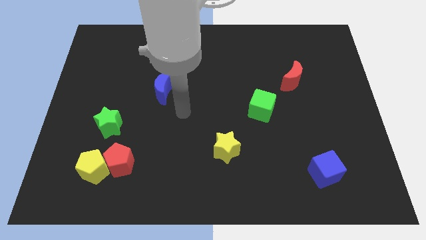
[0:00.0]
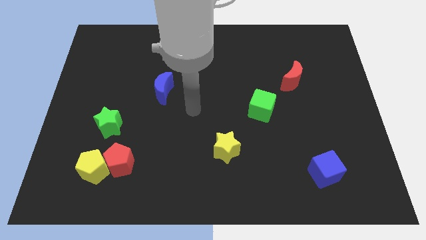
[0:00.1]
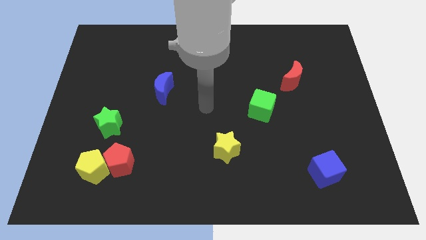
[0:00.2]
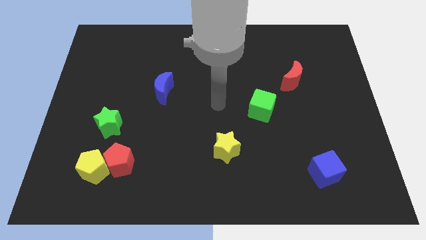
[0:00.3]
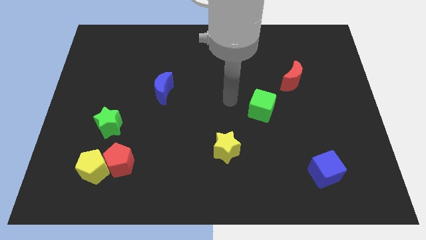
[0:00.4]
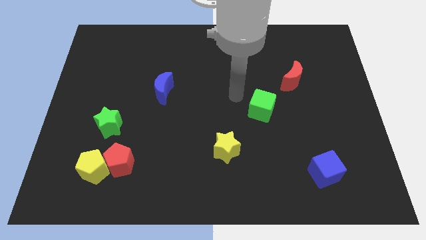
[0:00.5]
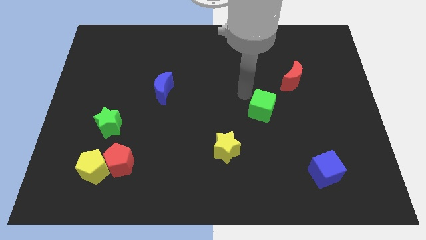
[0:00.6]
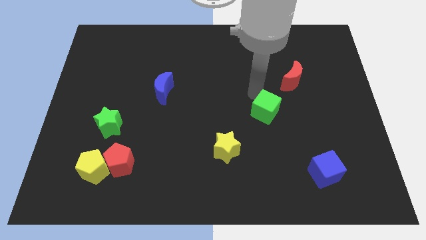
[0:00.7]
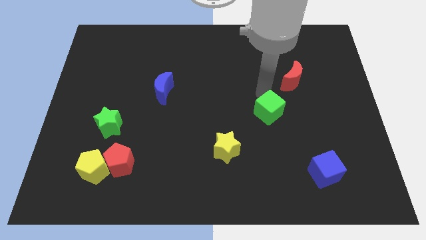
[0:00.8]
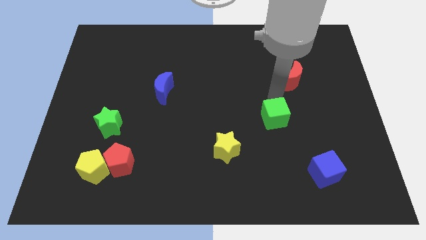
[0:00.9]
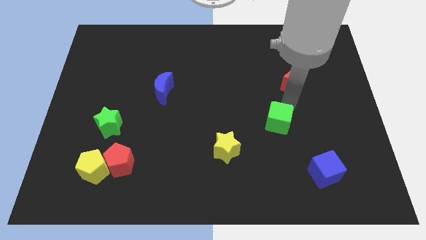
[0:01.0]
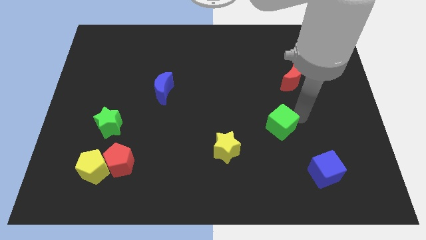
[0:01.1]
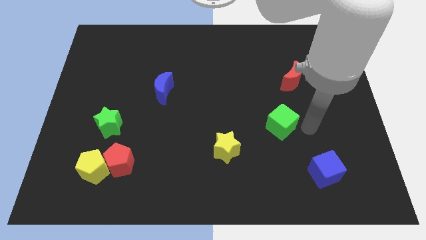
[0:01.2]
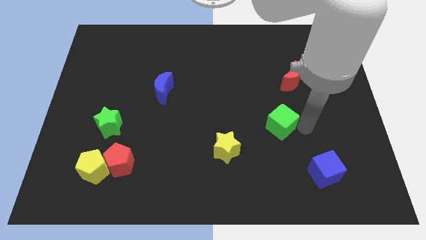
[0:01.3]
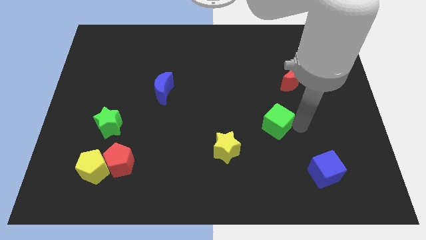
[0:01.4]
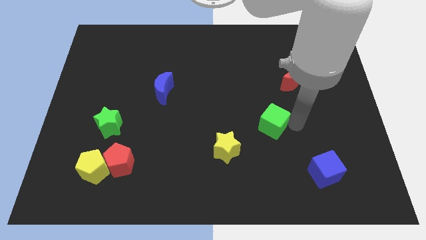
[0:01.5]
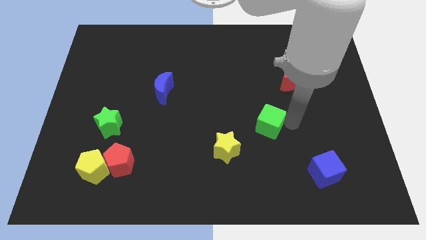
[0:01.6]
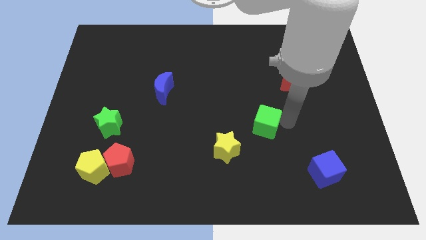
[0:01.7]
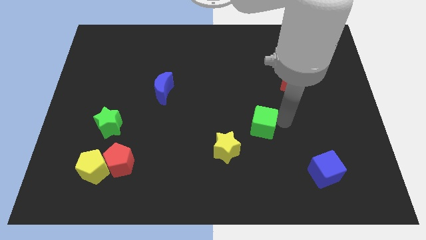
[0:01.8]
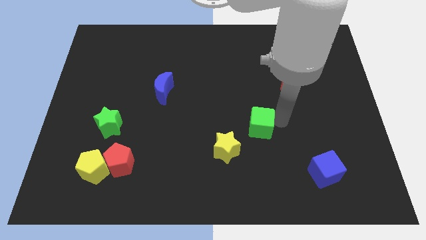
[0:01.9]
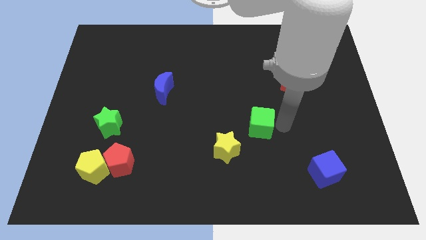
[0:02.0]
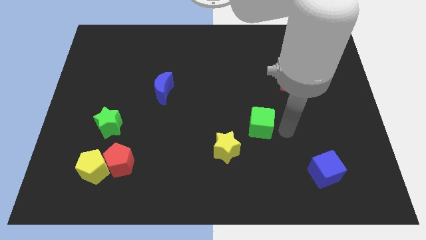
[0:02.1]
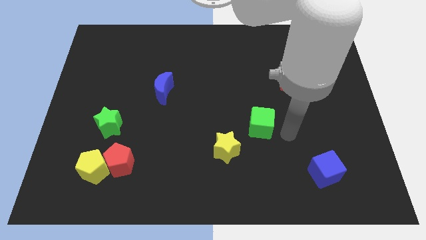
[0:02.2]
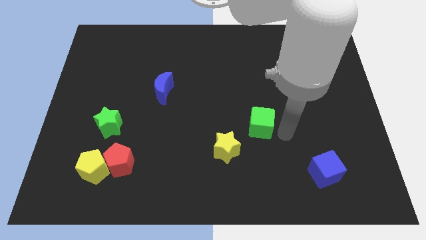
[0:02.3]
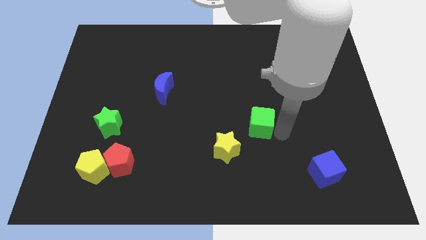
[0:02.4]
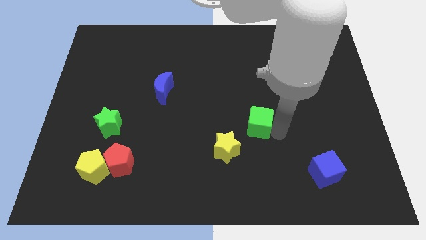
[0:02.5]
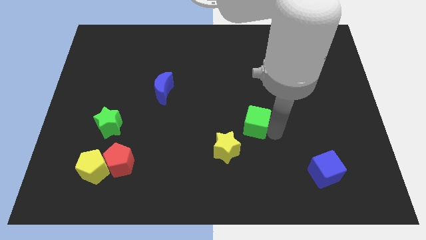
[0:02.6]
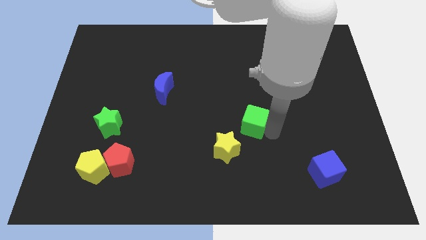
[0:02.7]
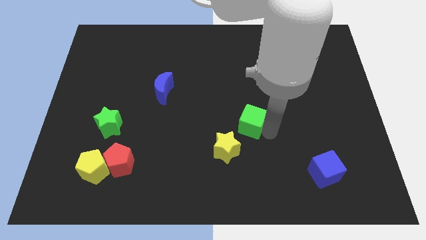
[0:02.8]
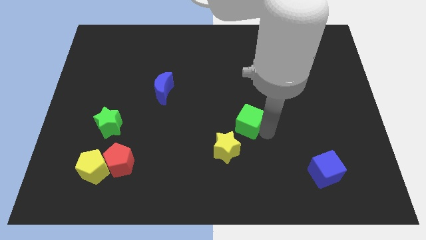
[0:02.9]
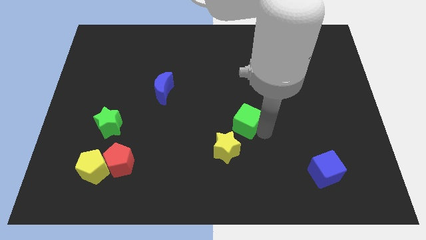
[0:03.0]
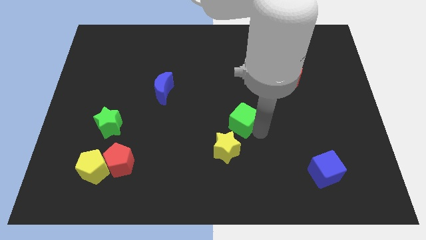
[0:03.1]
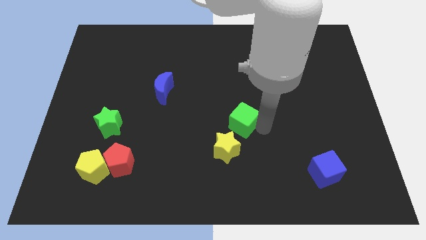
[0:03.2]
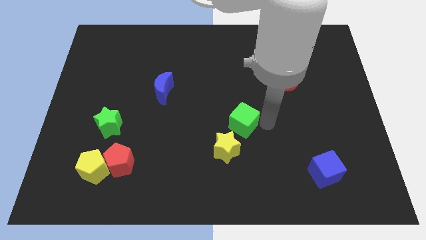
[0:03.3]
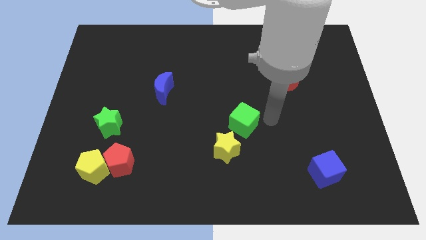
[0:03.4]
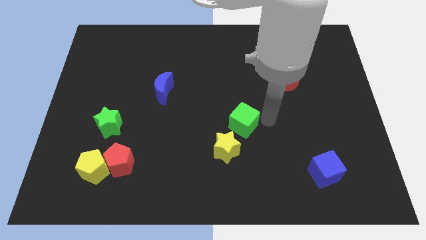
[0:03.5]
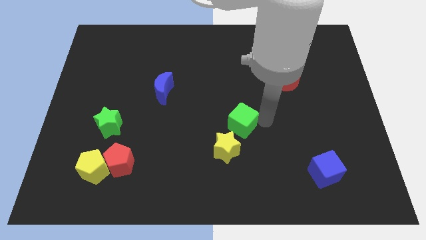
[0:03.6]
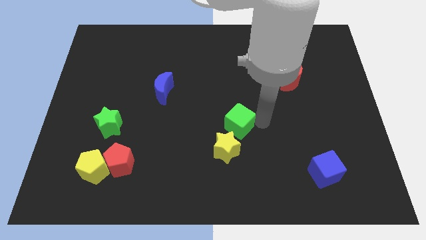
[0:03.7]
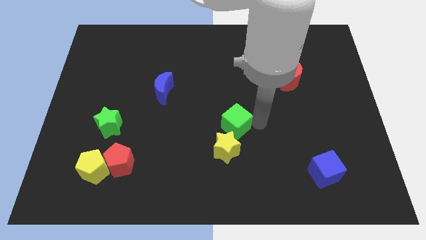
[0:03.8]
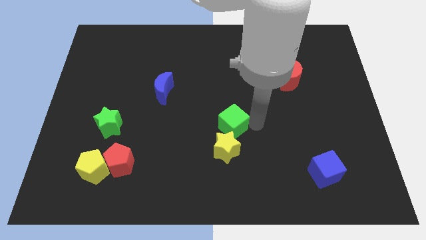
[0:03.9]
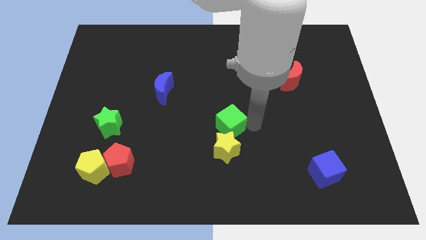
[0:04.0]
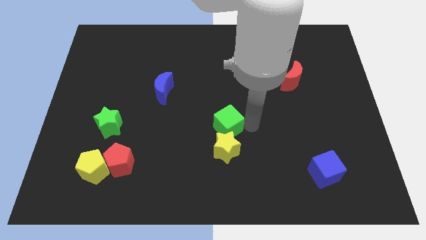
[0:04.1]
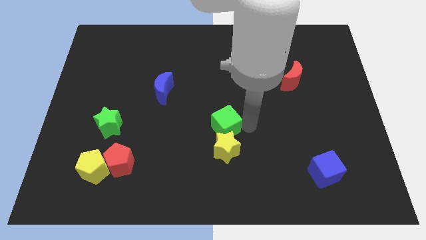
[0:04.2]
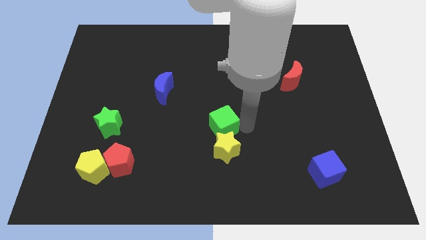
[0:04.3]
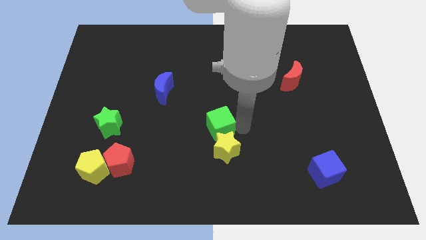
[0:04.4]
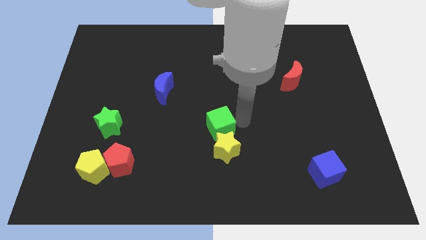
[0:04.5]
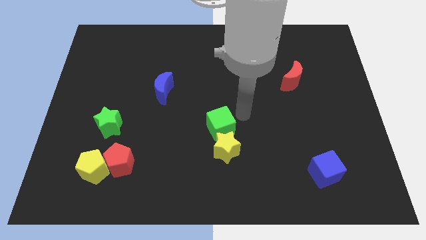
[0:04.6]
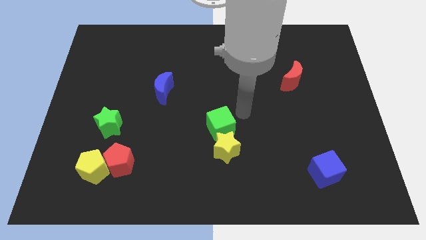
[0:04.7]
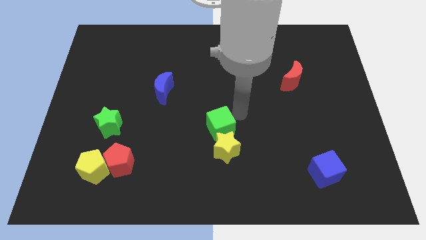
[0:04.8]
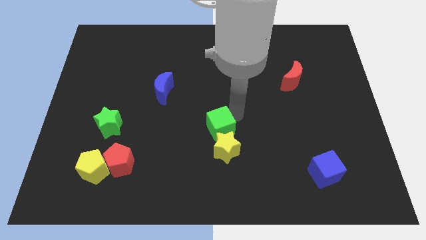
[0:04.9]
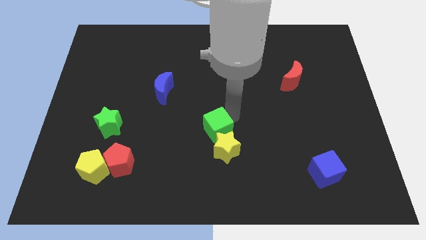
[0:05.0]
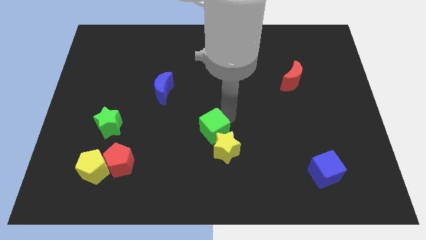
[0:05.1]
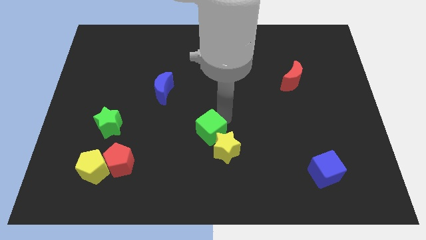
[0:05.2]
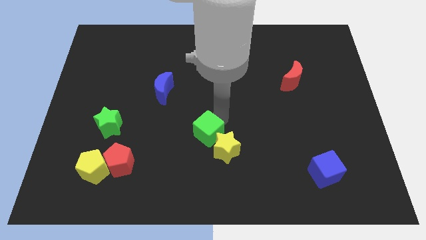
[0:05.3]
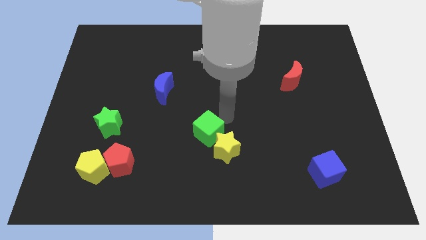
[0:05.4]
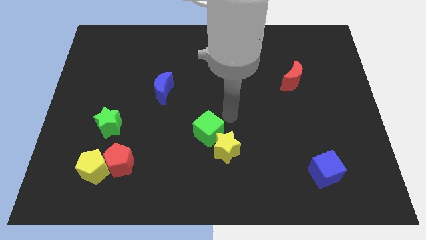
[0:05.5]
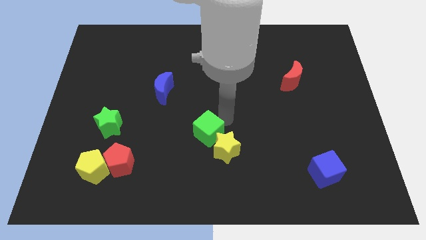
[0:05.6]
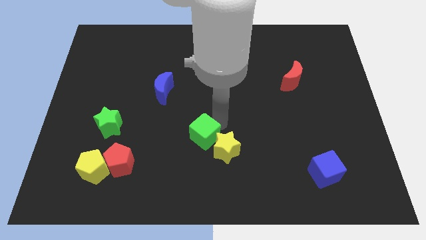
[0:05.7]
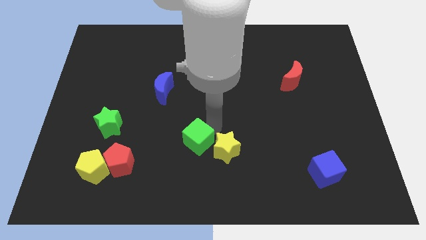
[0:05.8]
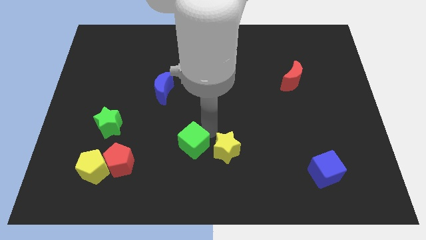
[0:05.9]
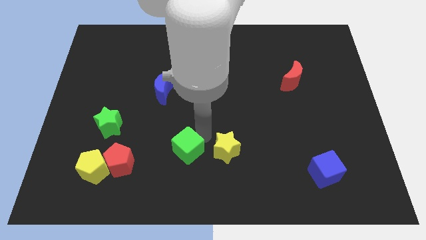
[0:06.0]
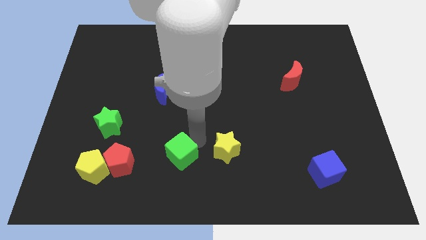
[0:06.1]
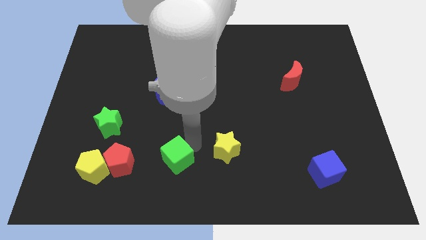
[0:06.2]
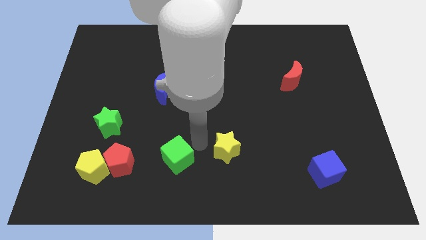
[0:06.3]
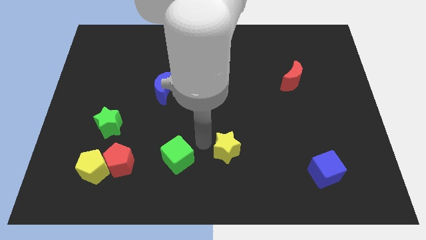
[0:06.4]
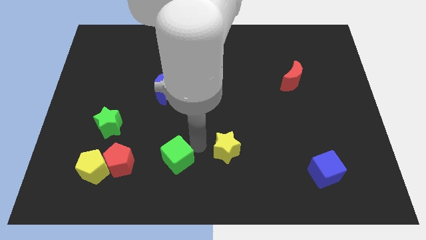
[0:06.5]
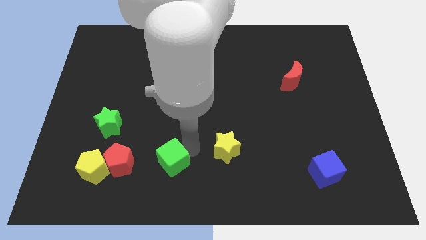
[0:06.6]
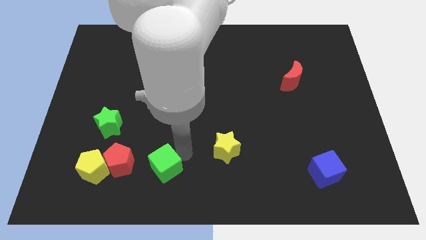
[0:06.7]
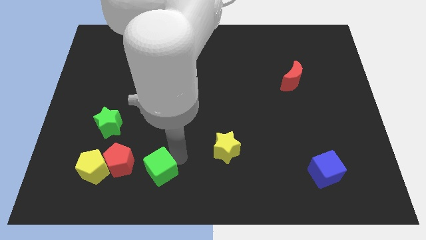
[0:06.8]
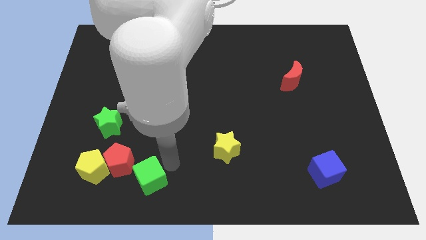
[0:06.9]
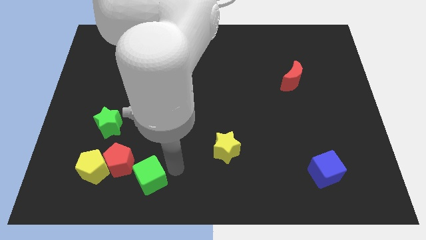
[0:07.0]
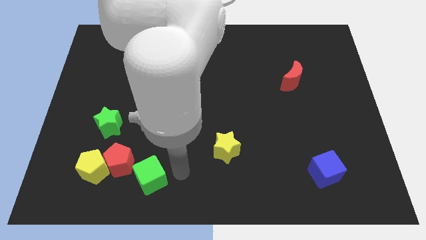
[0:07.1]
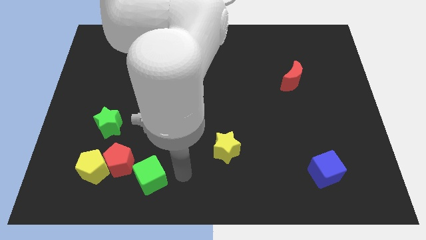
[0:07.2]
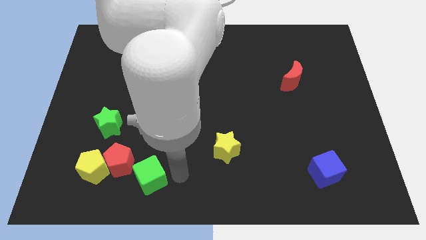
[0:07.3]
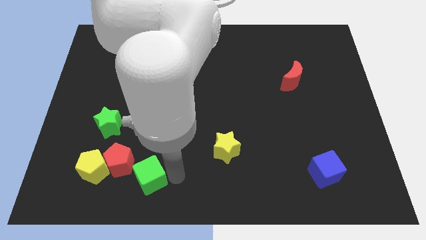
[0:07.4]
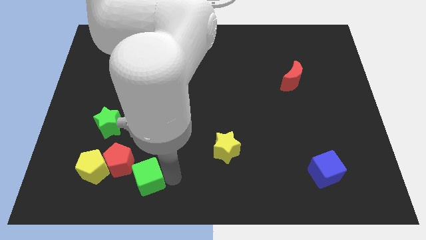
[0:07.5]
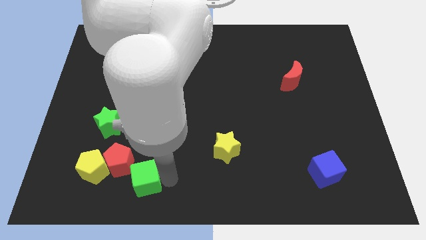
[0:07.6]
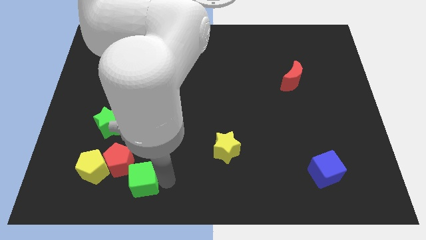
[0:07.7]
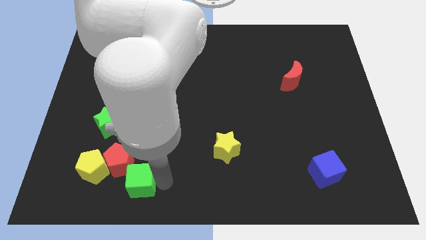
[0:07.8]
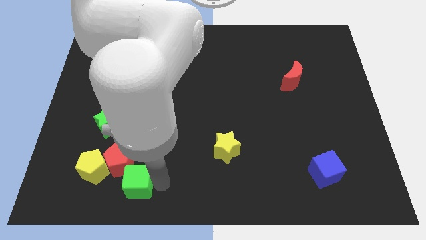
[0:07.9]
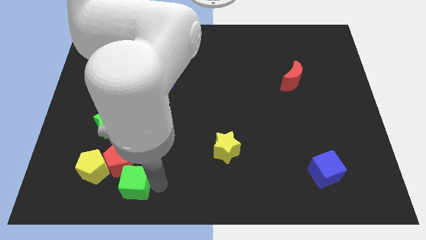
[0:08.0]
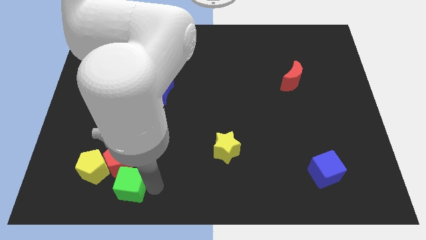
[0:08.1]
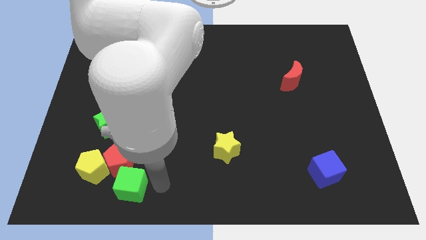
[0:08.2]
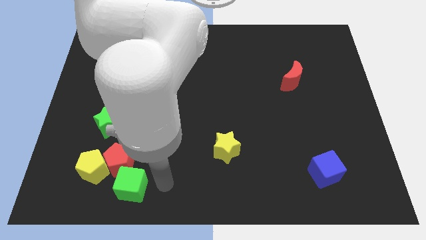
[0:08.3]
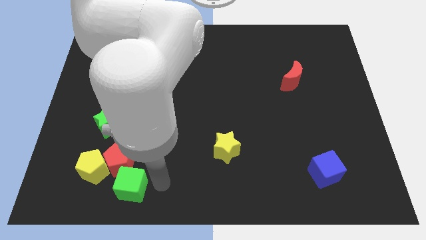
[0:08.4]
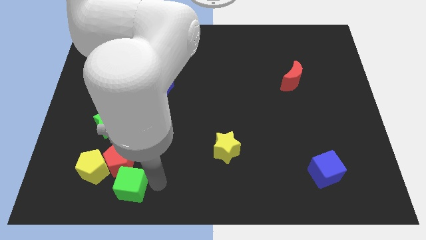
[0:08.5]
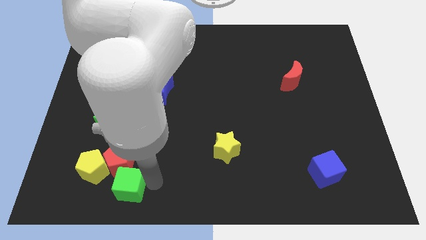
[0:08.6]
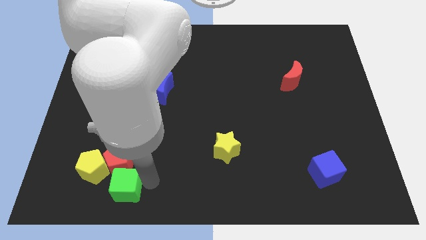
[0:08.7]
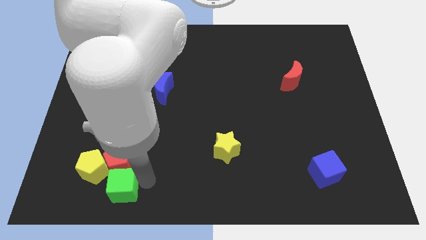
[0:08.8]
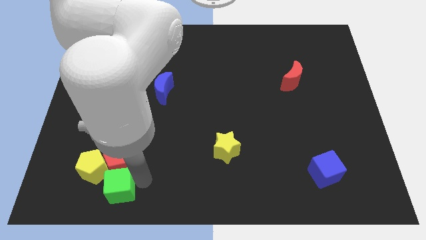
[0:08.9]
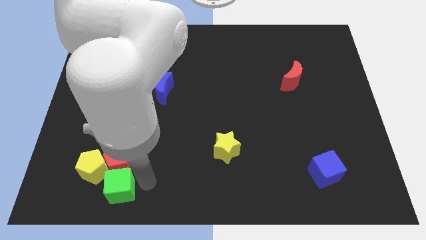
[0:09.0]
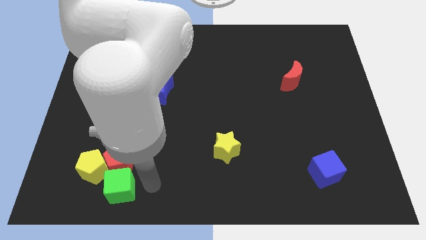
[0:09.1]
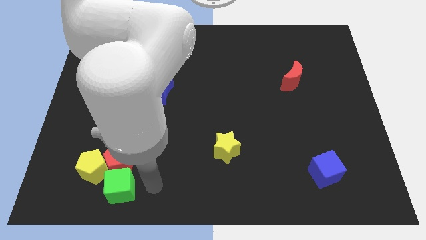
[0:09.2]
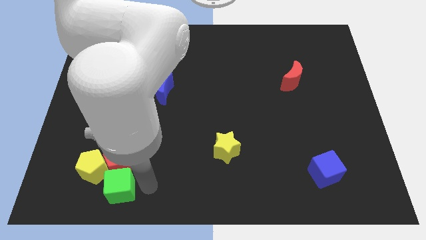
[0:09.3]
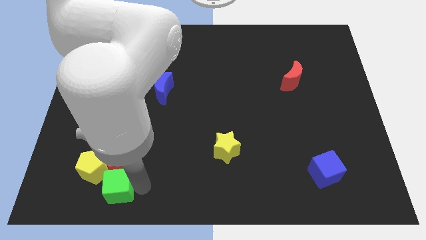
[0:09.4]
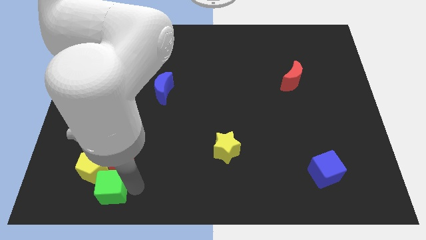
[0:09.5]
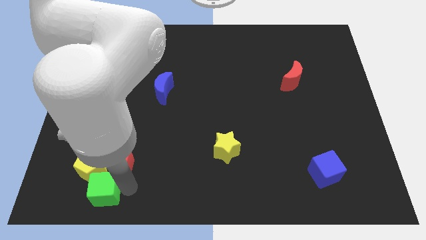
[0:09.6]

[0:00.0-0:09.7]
push the green cube below the green star
